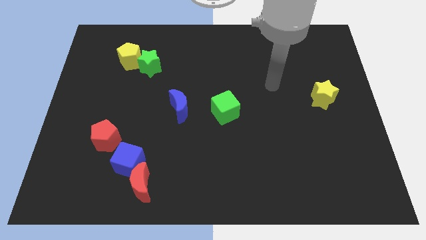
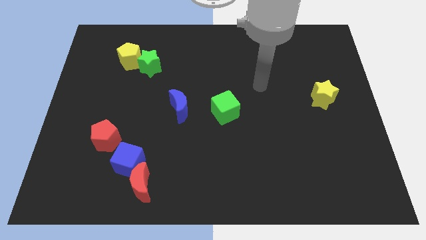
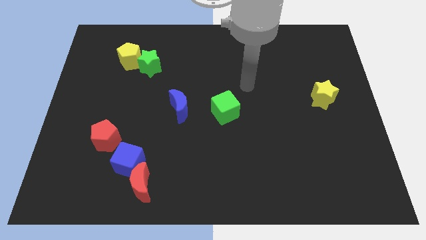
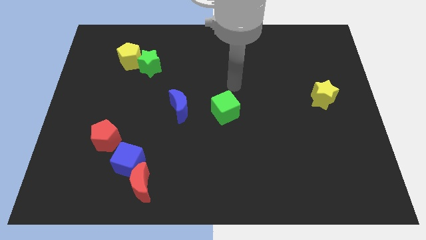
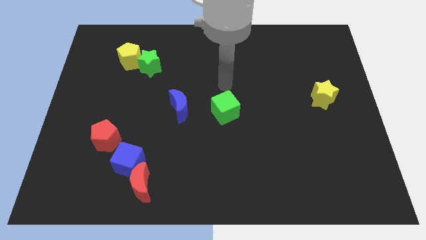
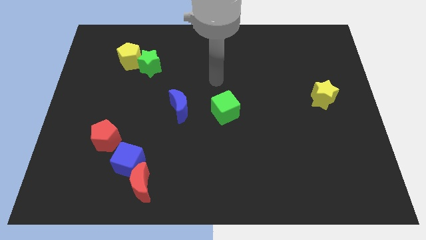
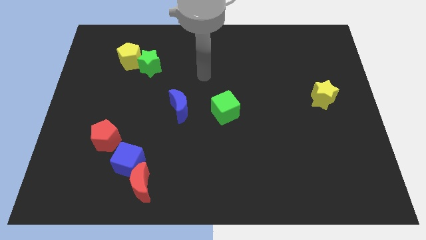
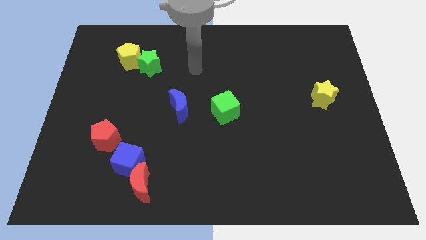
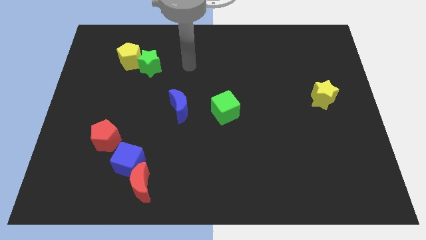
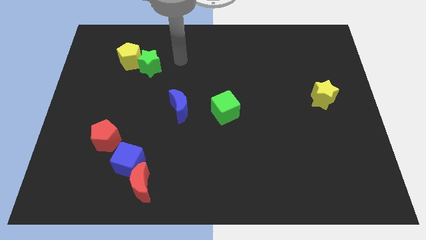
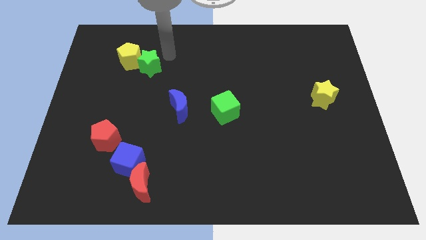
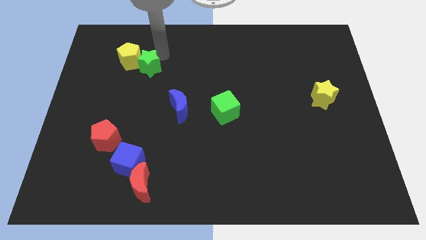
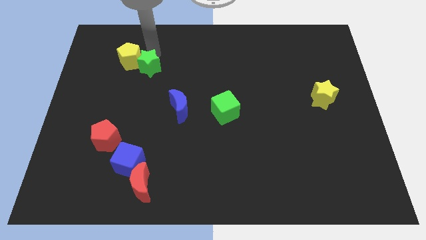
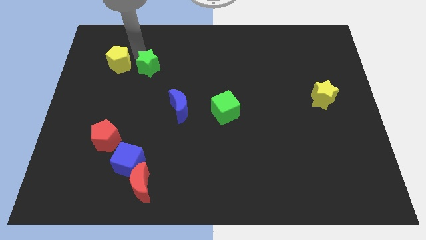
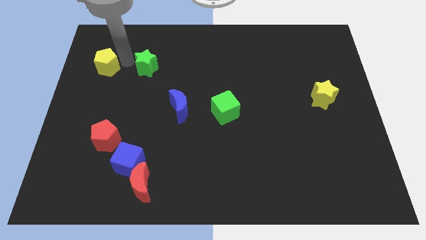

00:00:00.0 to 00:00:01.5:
move the green star away from the yellow pentagon

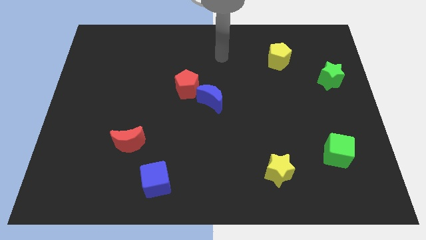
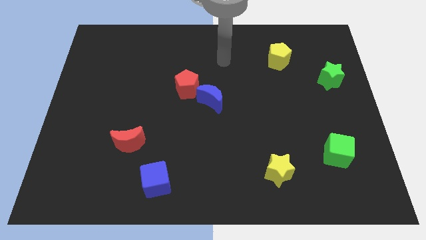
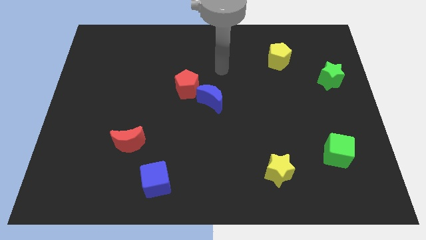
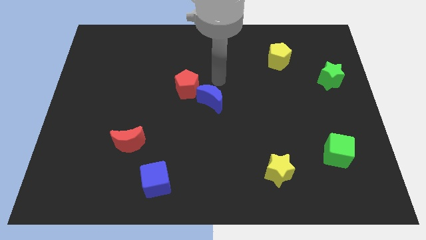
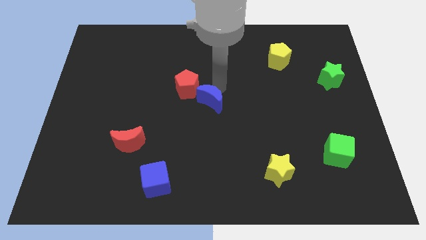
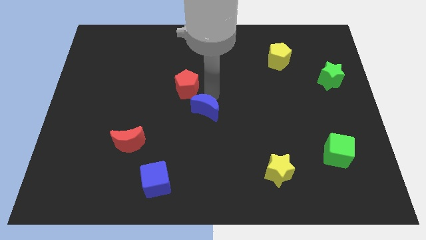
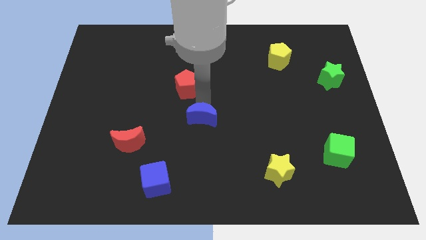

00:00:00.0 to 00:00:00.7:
separate the red pentagon from the blue moon

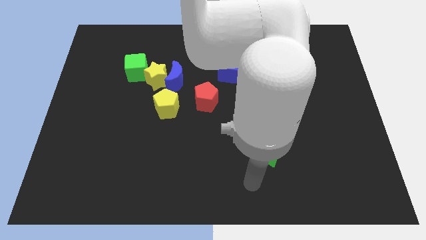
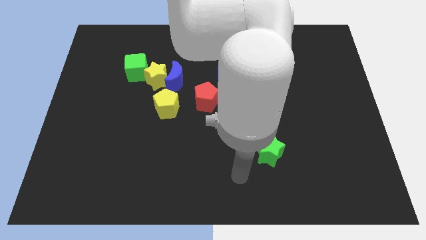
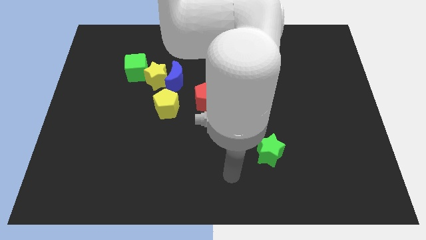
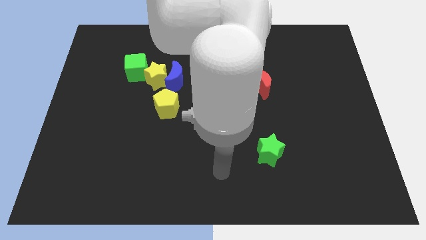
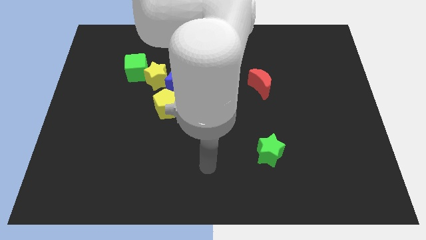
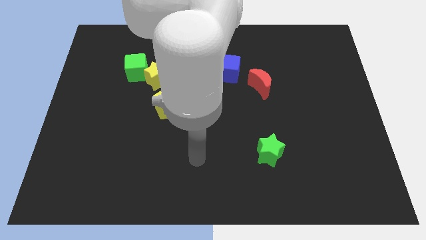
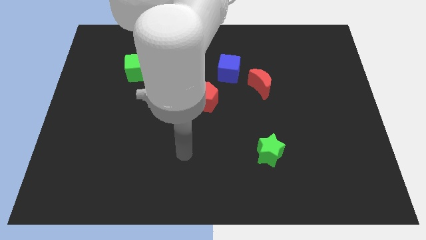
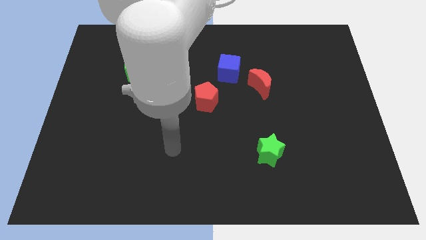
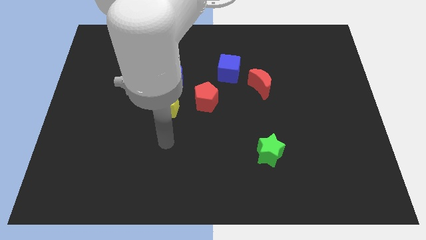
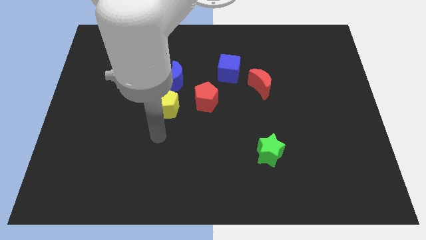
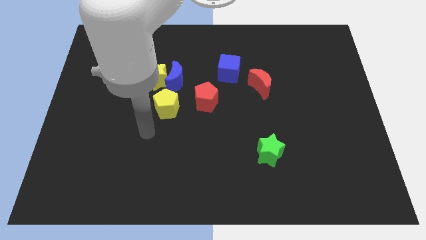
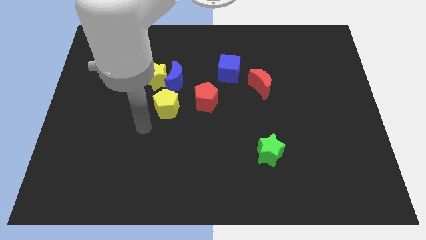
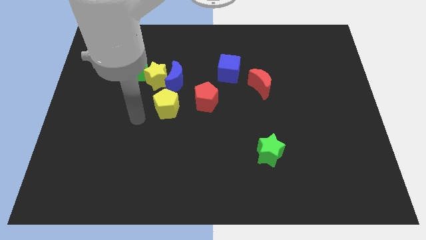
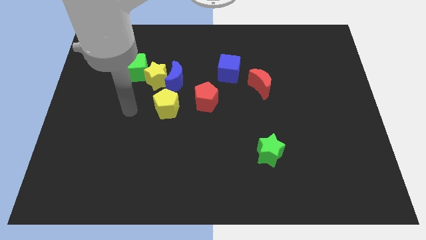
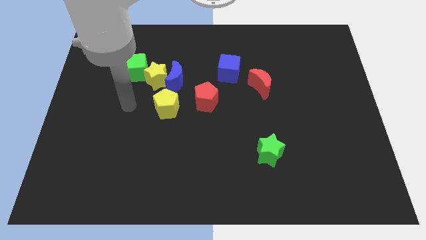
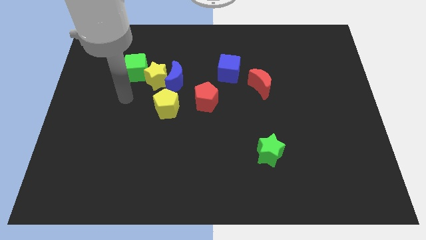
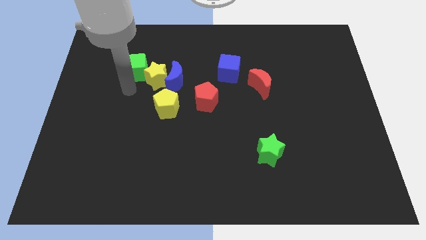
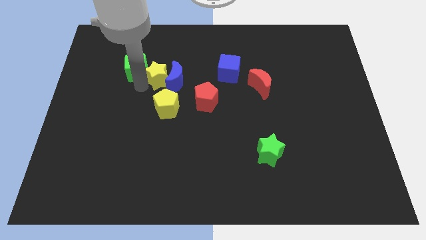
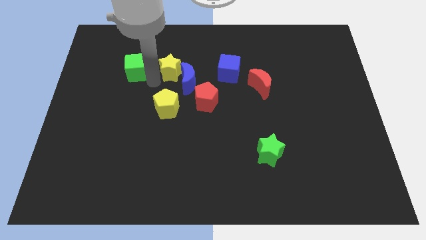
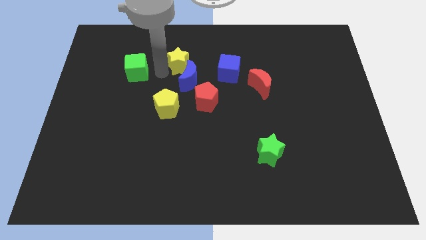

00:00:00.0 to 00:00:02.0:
pull the green cube apart from the yellow star

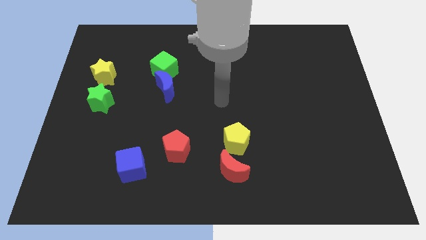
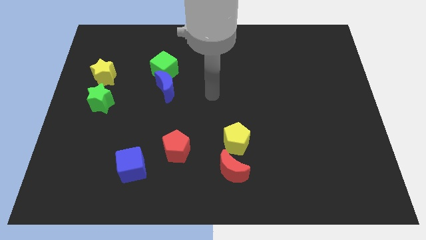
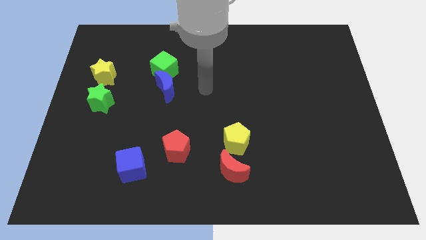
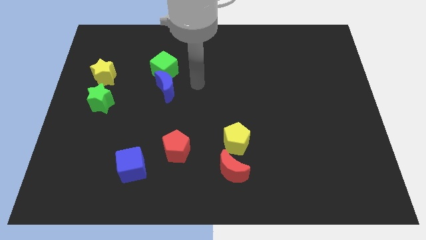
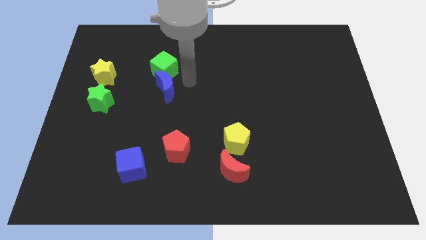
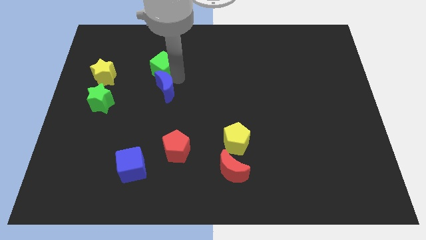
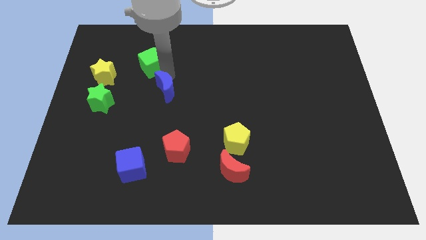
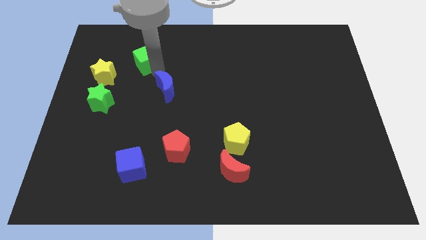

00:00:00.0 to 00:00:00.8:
move the blue moon away from the green cube

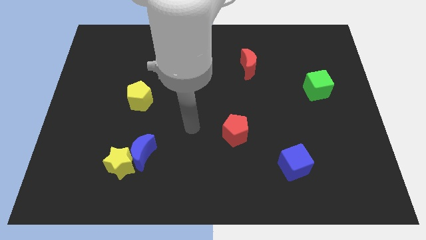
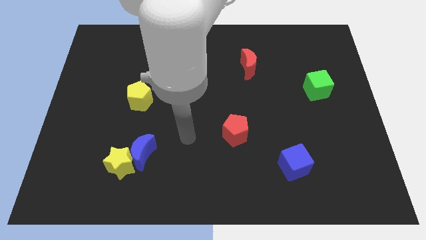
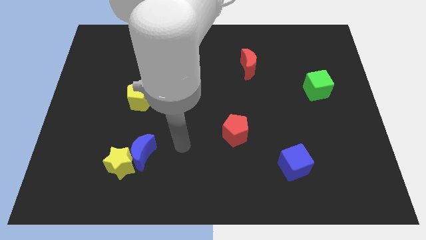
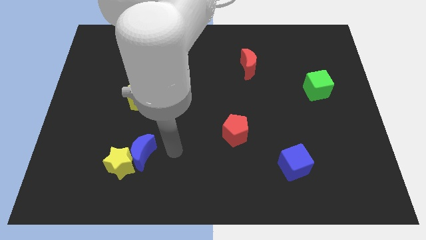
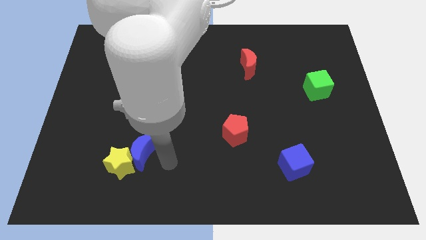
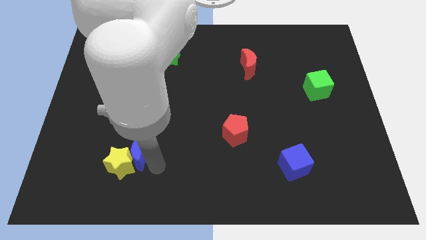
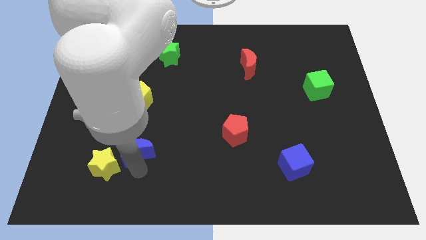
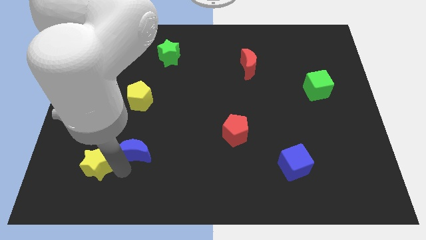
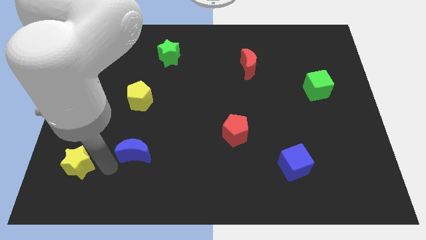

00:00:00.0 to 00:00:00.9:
move the blue moon away from the yellow star

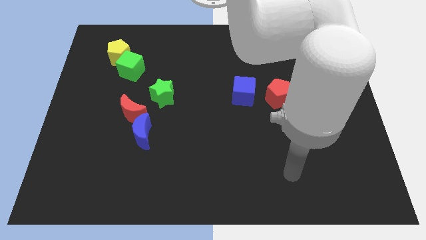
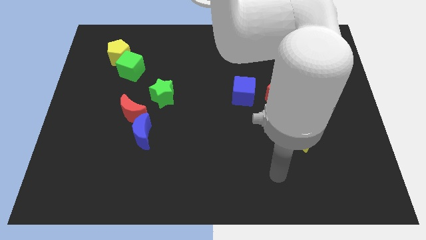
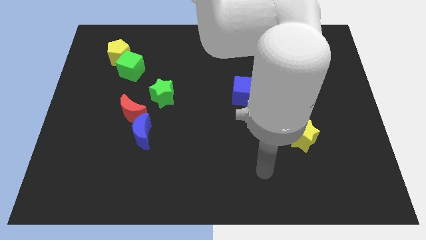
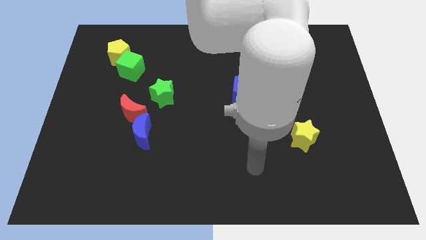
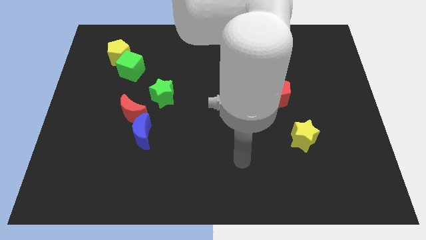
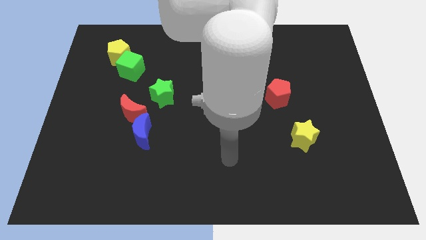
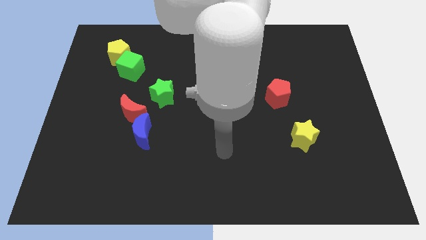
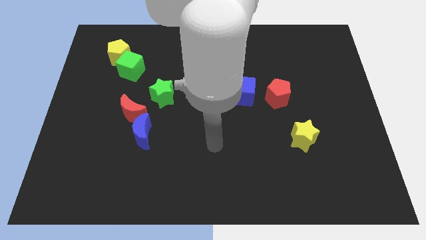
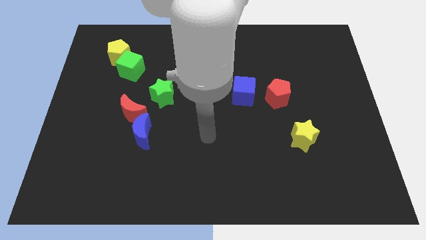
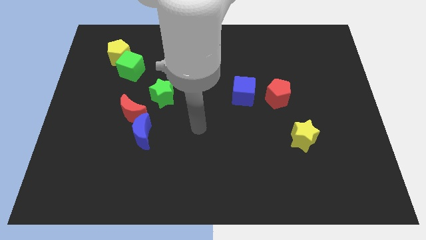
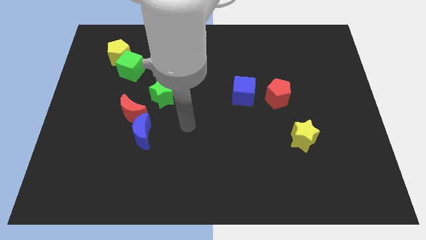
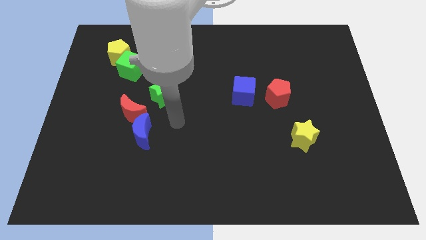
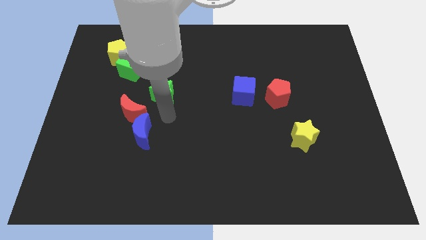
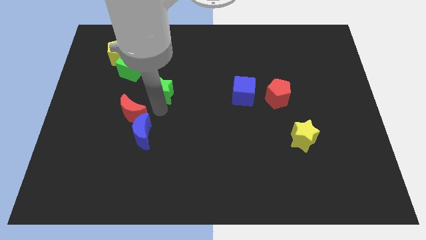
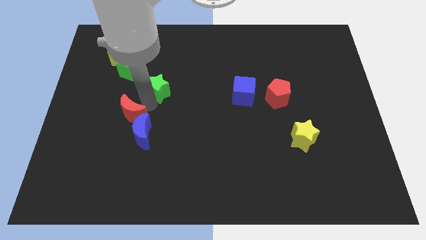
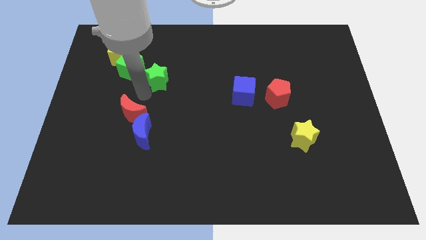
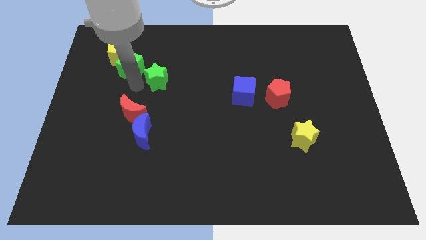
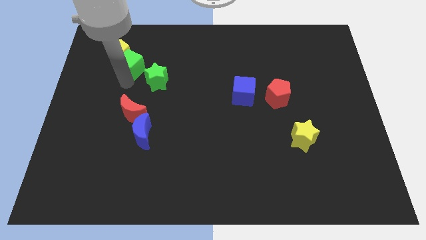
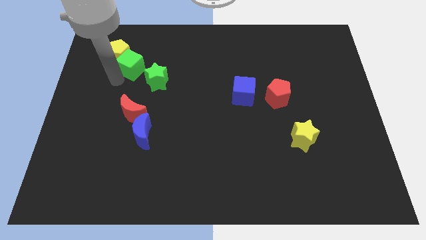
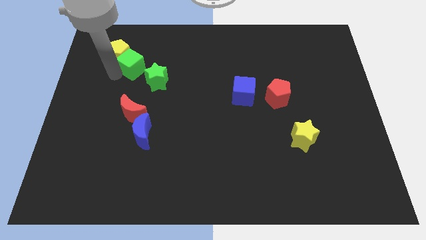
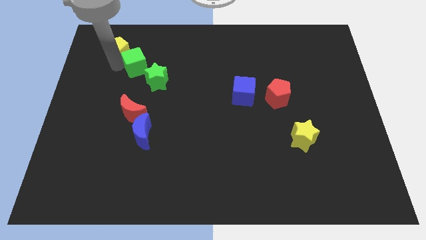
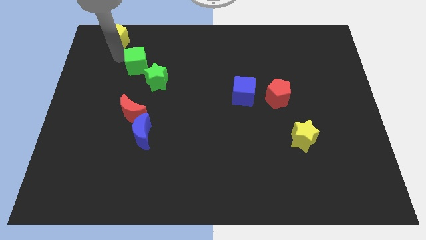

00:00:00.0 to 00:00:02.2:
pull the green cube apart from the yellow pentagon

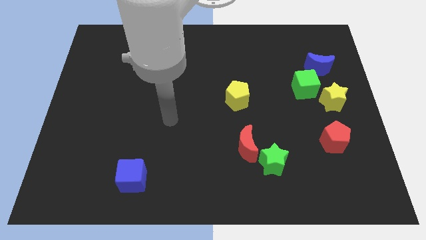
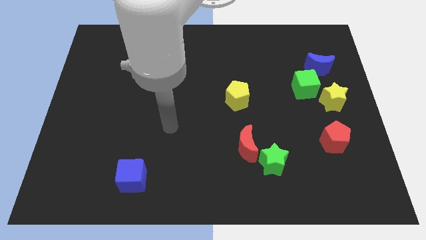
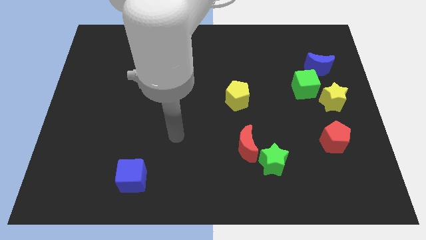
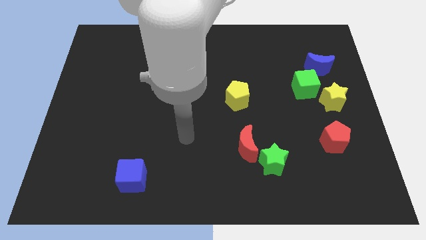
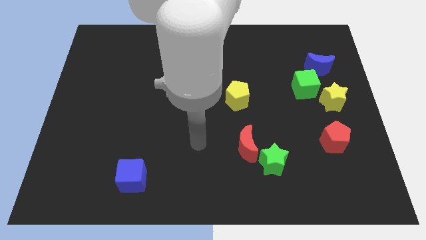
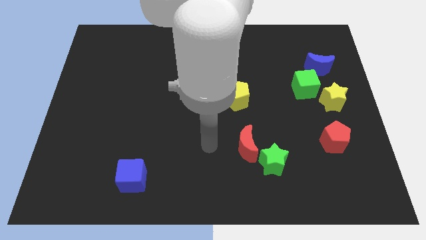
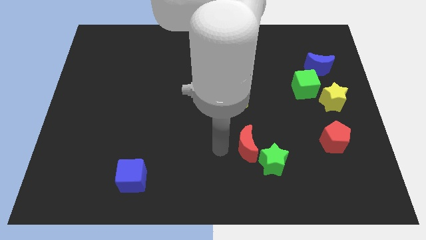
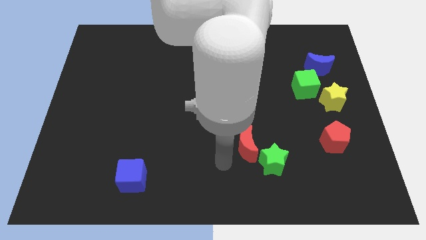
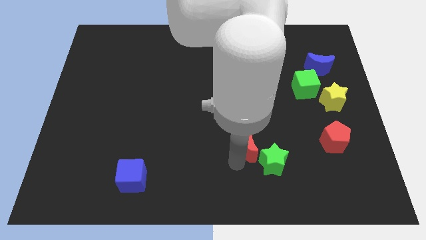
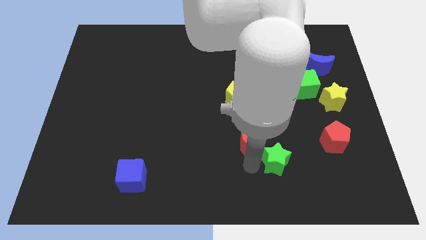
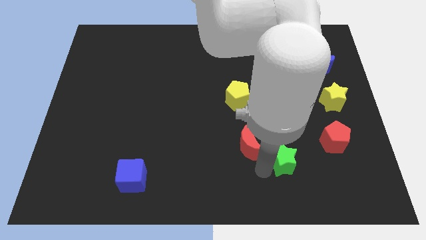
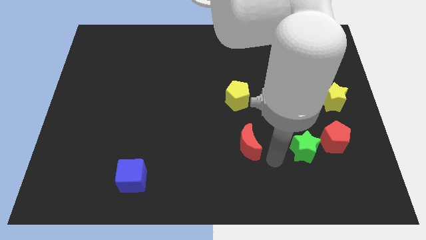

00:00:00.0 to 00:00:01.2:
move the red moon away from the green star
